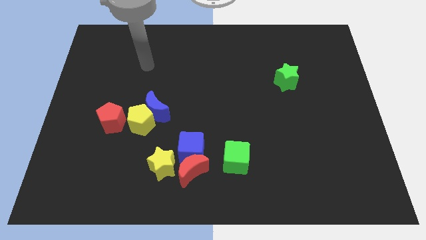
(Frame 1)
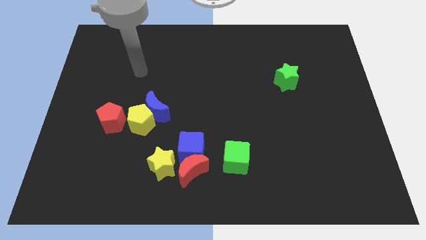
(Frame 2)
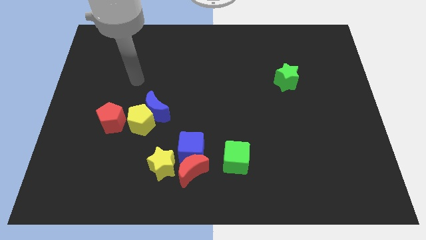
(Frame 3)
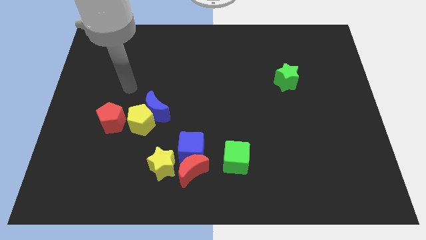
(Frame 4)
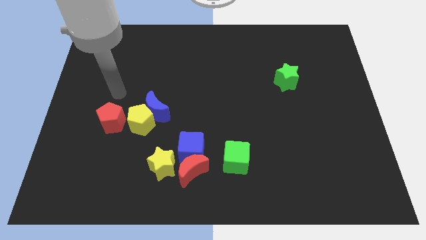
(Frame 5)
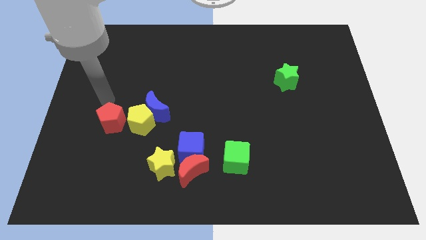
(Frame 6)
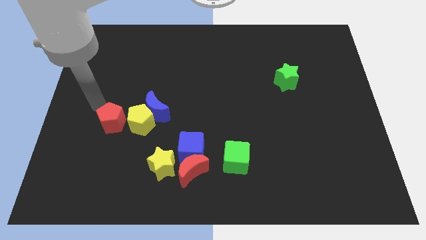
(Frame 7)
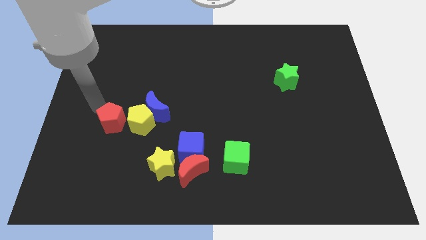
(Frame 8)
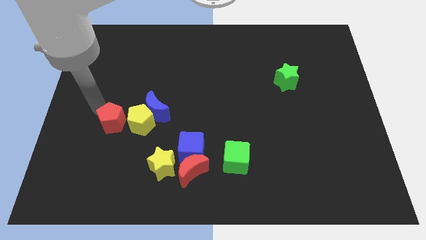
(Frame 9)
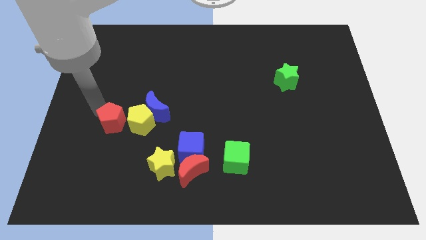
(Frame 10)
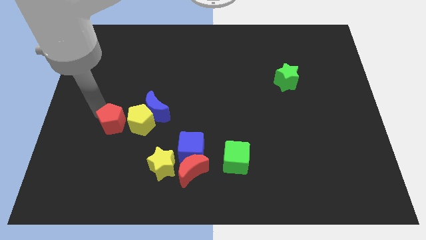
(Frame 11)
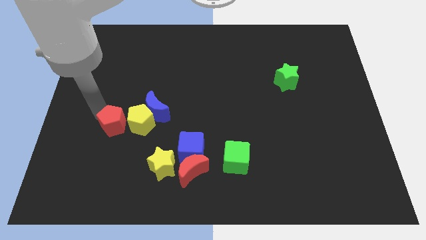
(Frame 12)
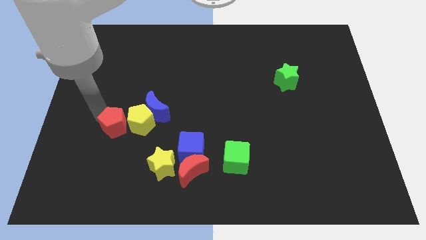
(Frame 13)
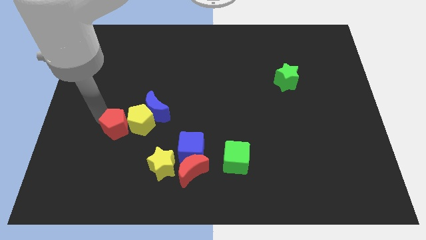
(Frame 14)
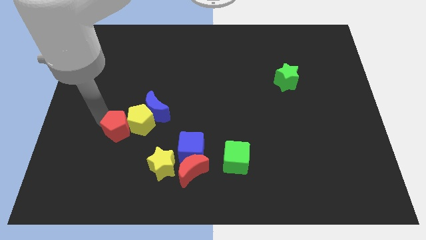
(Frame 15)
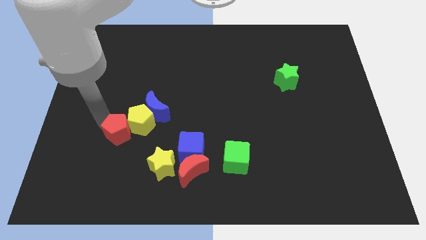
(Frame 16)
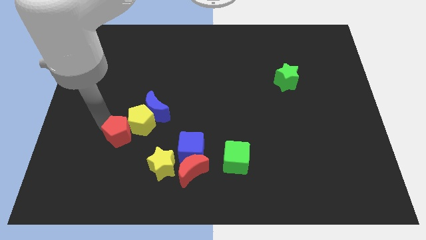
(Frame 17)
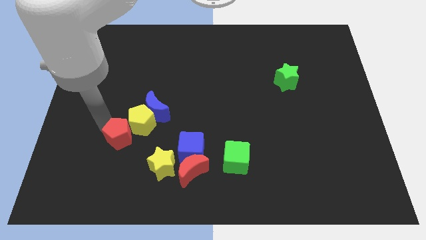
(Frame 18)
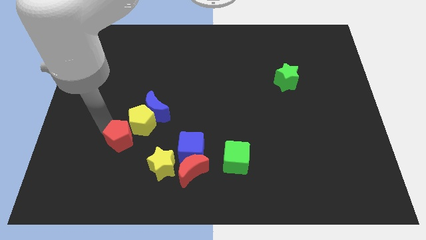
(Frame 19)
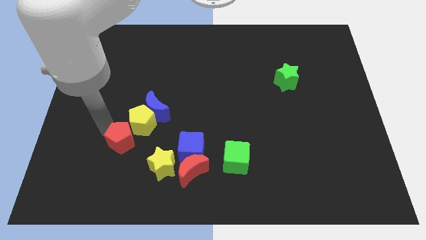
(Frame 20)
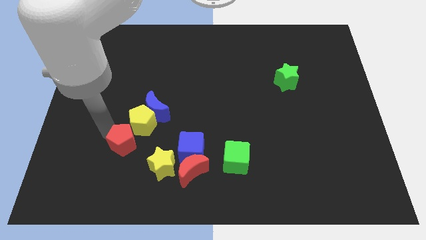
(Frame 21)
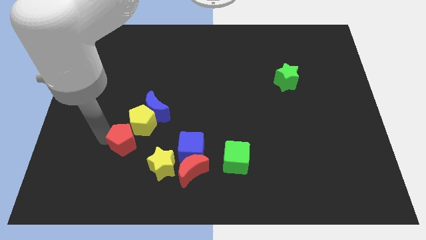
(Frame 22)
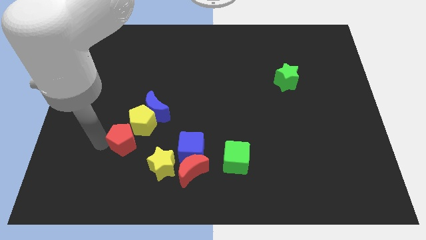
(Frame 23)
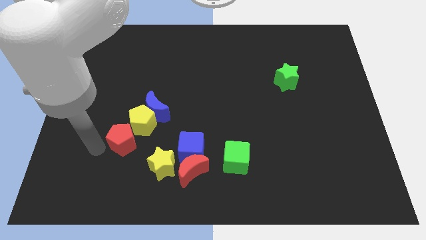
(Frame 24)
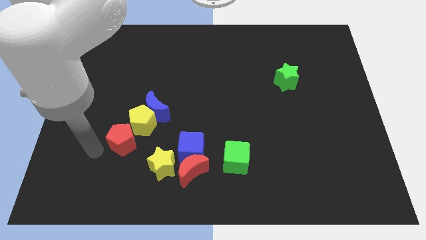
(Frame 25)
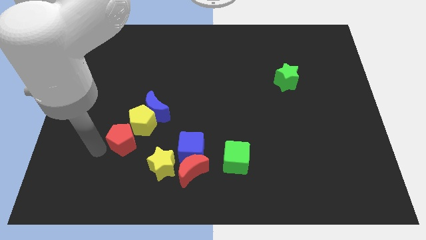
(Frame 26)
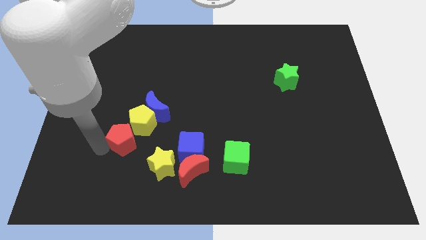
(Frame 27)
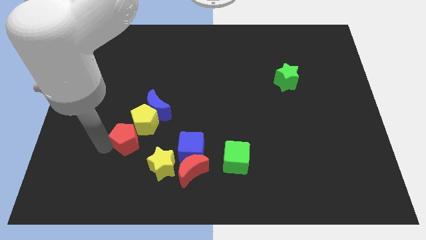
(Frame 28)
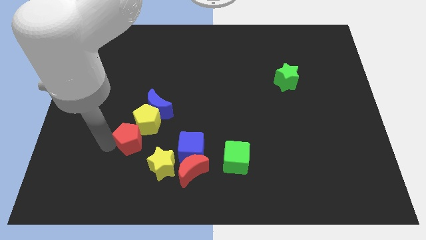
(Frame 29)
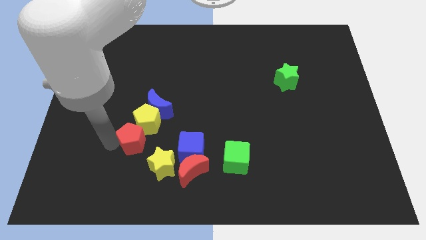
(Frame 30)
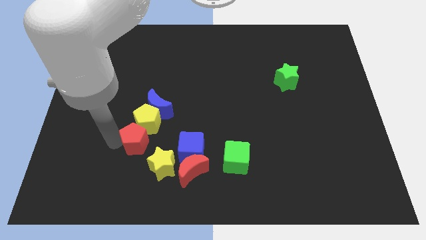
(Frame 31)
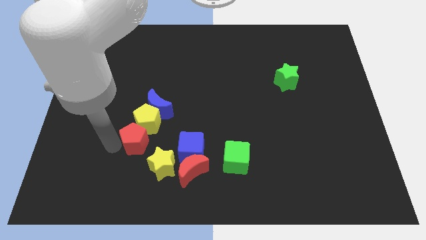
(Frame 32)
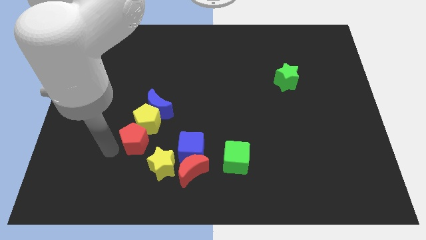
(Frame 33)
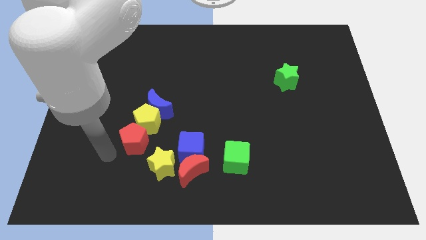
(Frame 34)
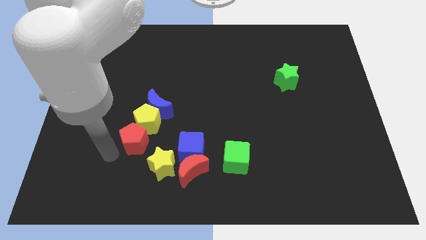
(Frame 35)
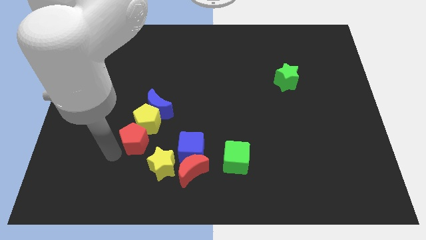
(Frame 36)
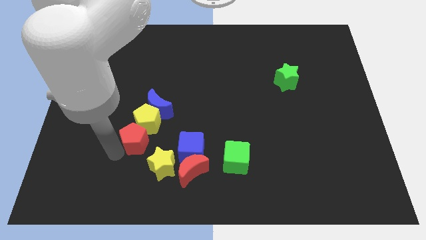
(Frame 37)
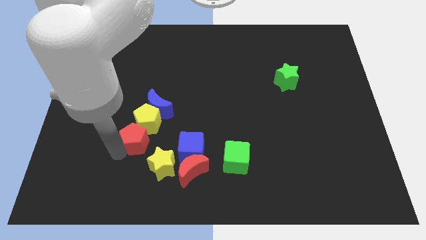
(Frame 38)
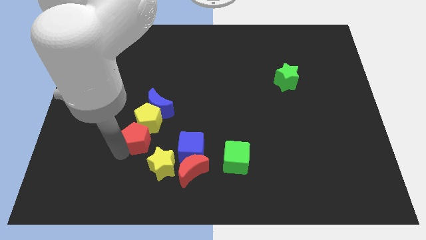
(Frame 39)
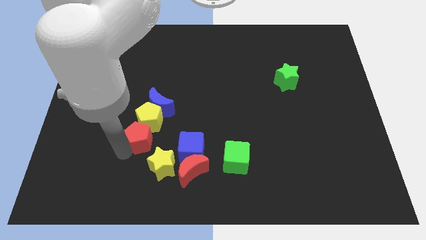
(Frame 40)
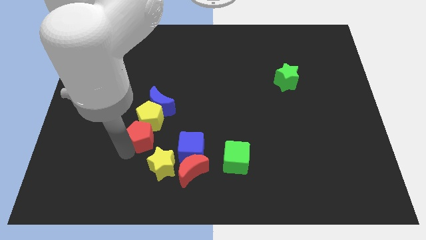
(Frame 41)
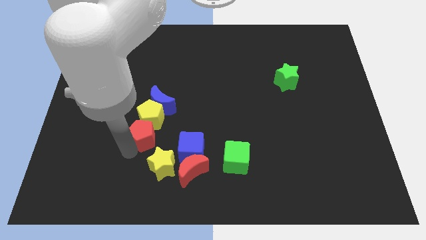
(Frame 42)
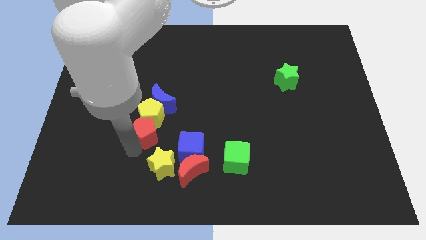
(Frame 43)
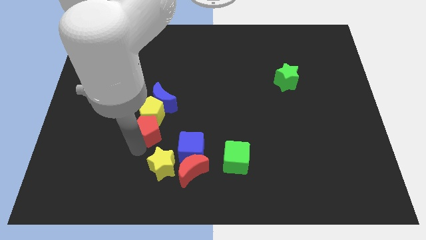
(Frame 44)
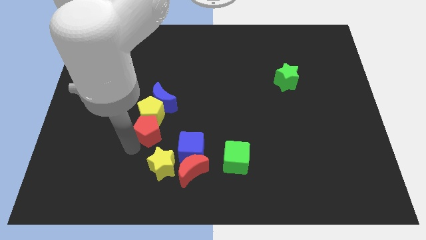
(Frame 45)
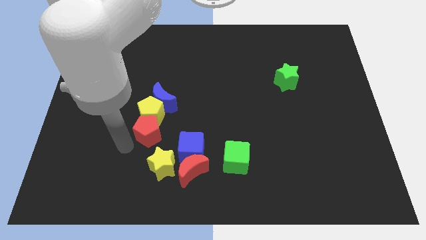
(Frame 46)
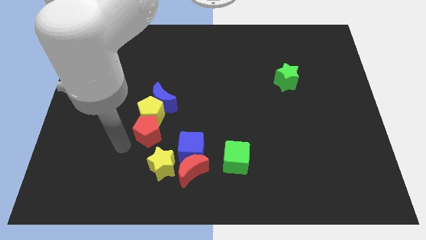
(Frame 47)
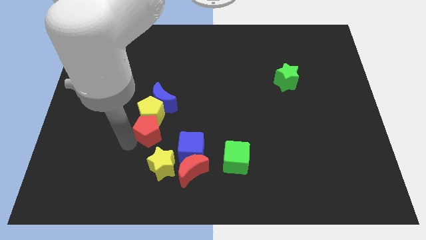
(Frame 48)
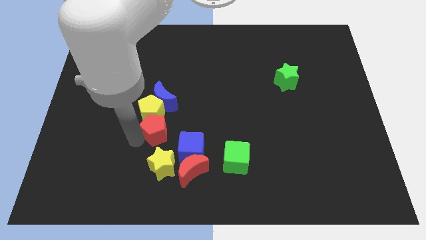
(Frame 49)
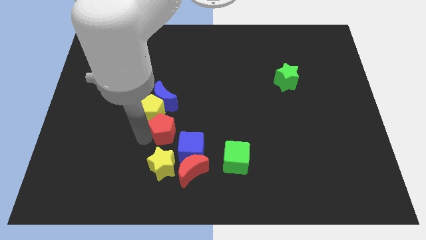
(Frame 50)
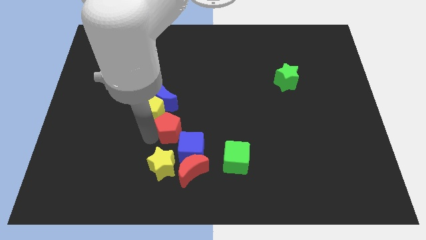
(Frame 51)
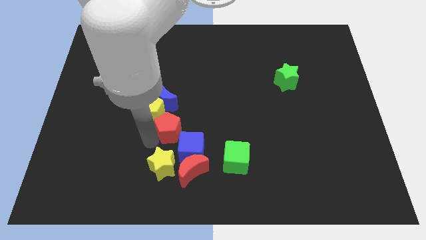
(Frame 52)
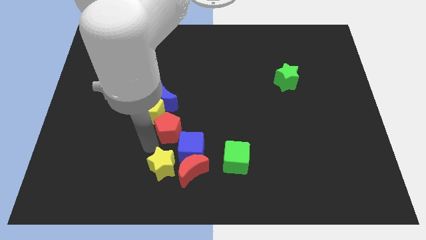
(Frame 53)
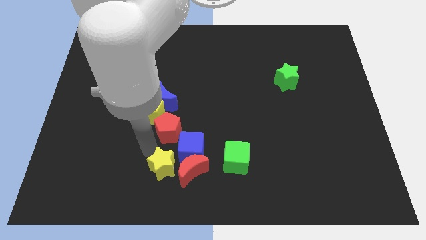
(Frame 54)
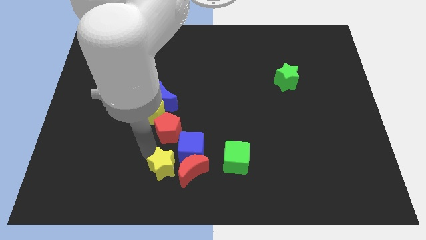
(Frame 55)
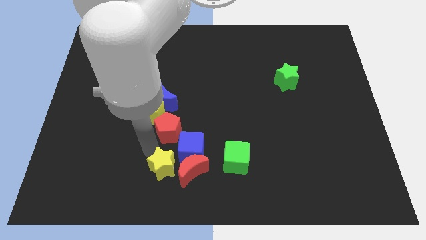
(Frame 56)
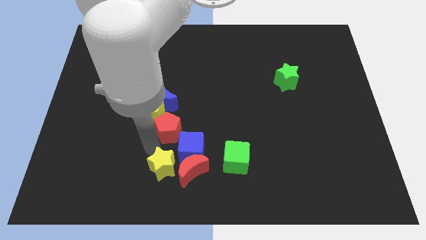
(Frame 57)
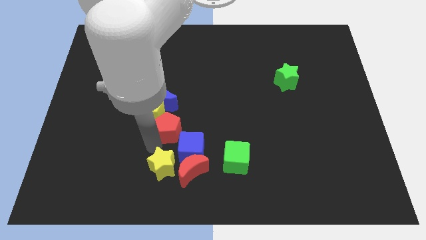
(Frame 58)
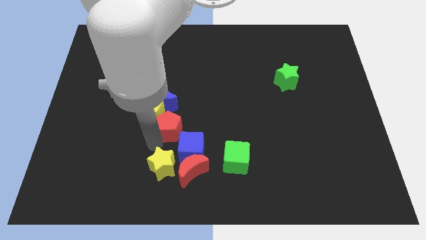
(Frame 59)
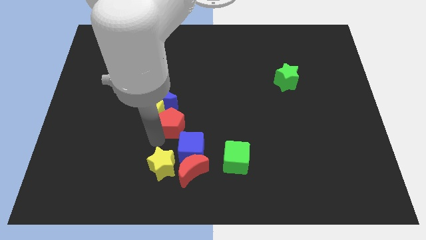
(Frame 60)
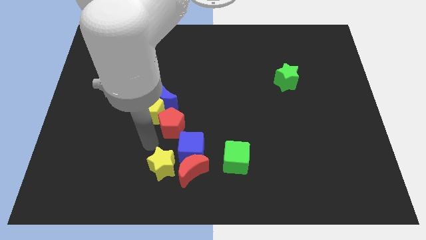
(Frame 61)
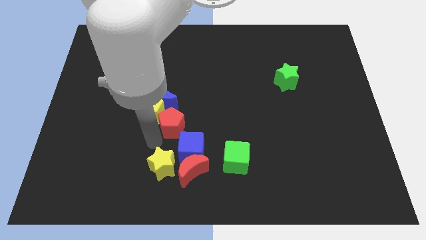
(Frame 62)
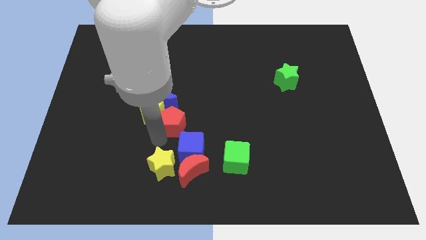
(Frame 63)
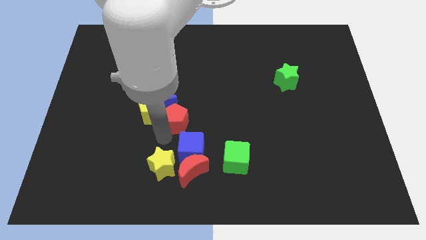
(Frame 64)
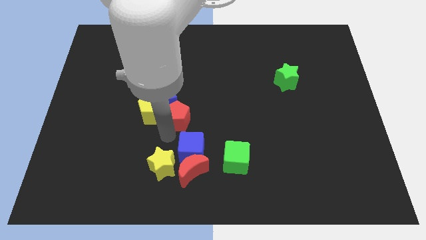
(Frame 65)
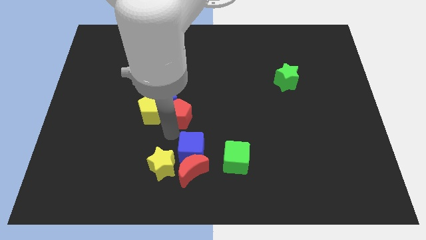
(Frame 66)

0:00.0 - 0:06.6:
push the red pentagon to the right of the blue moon
